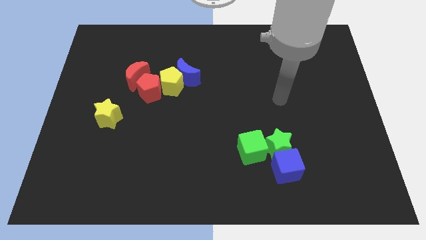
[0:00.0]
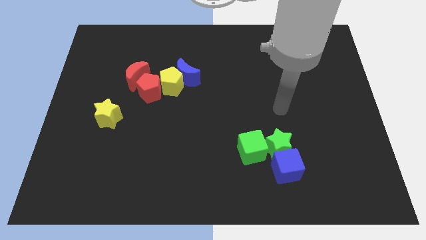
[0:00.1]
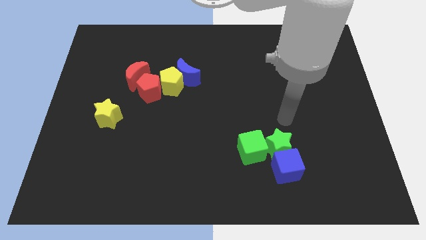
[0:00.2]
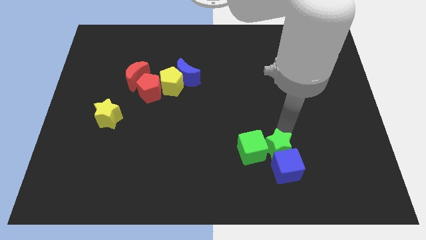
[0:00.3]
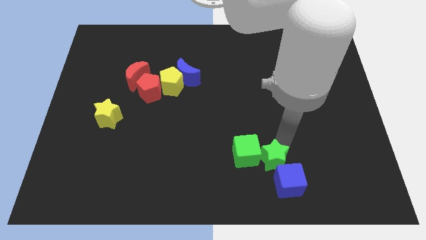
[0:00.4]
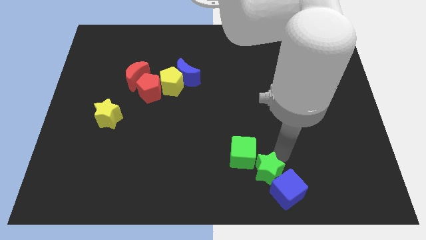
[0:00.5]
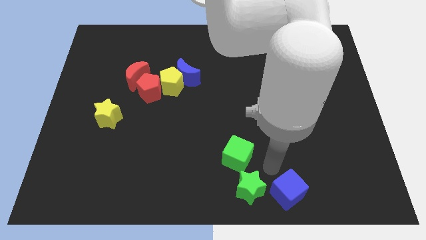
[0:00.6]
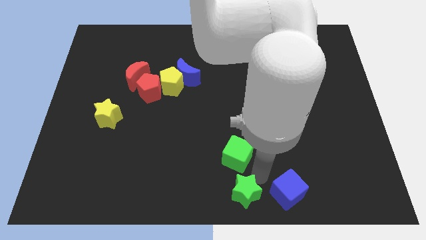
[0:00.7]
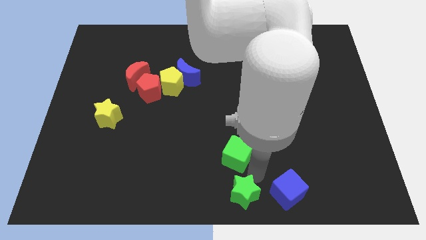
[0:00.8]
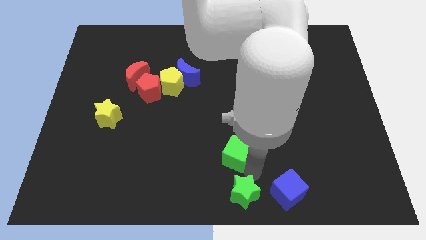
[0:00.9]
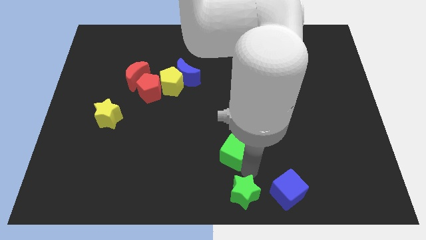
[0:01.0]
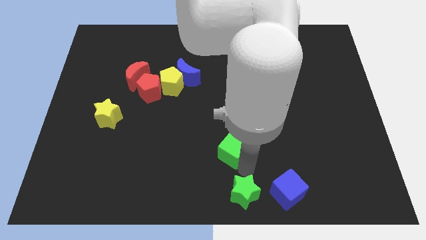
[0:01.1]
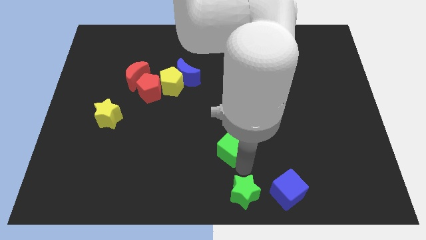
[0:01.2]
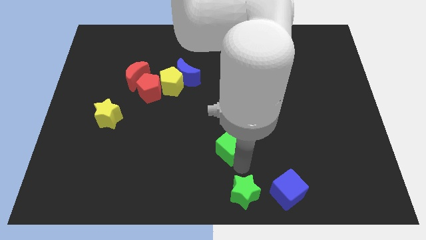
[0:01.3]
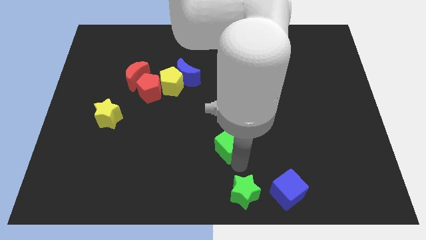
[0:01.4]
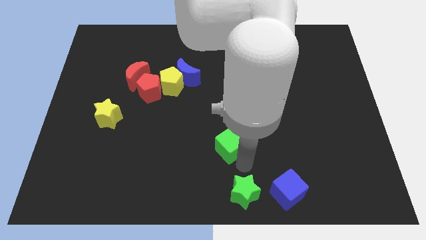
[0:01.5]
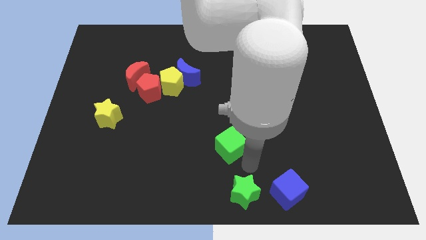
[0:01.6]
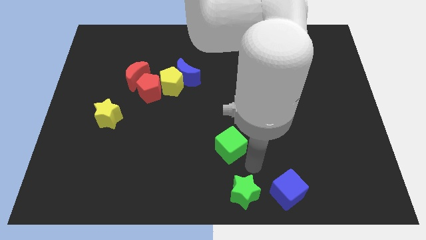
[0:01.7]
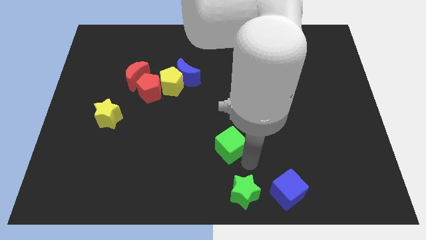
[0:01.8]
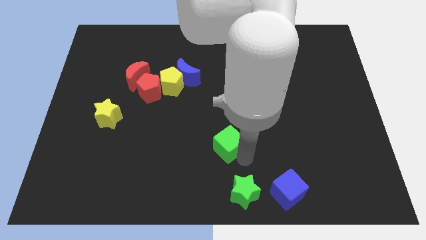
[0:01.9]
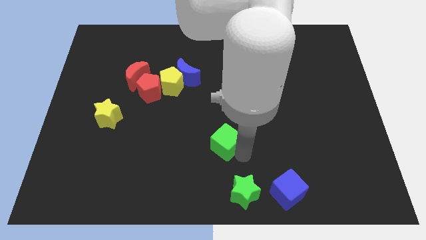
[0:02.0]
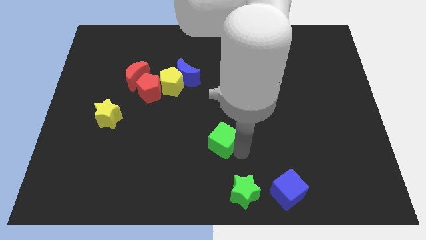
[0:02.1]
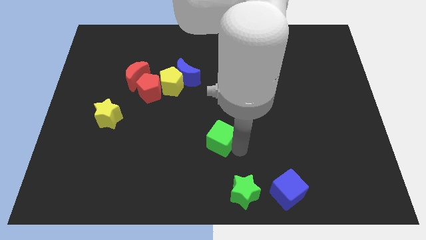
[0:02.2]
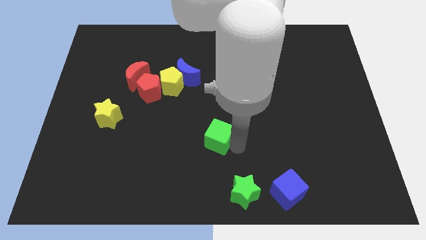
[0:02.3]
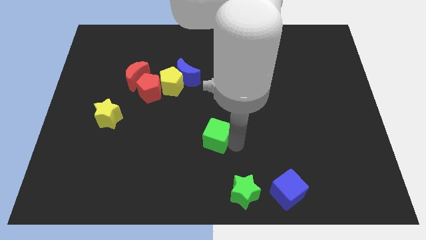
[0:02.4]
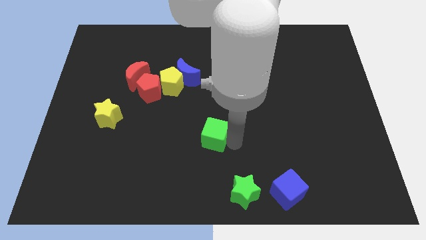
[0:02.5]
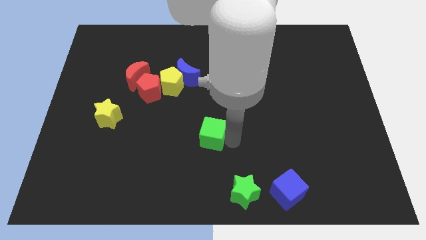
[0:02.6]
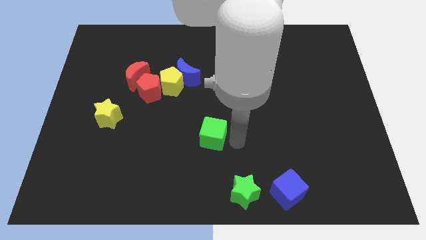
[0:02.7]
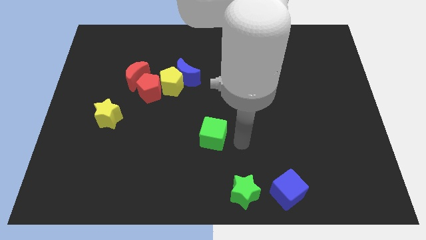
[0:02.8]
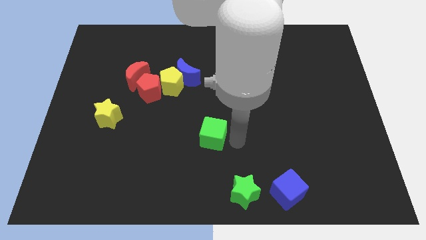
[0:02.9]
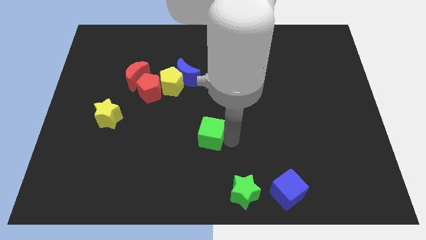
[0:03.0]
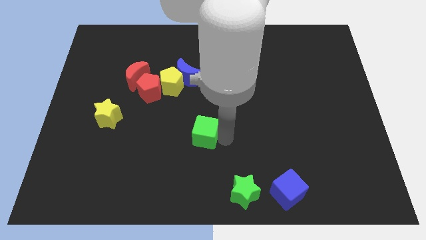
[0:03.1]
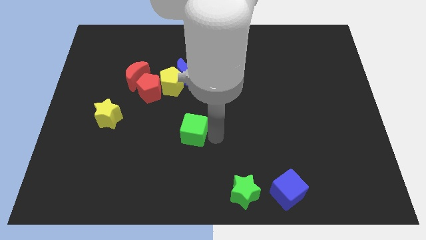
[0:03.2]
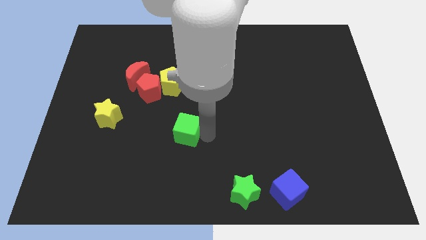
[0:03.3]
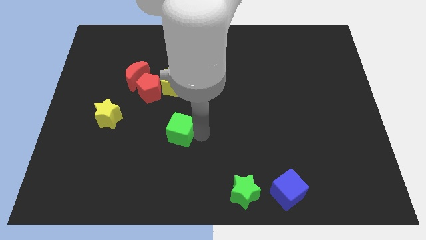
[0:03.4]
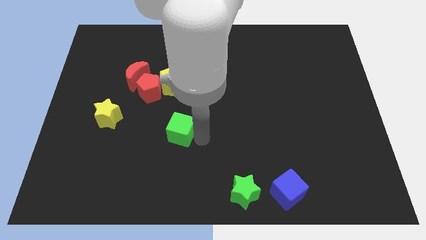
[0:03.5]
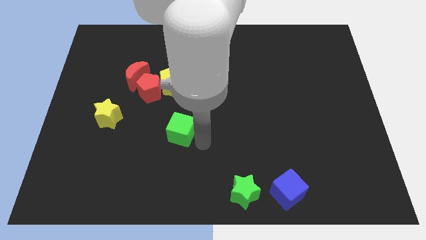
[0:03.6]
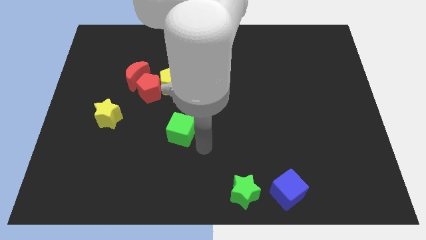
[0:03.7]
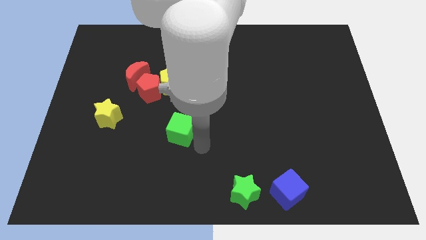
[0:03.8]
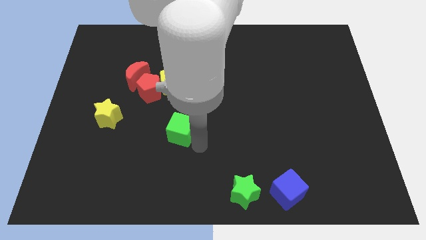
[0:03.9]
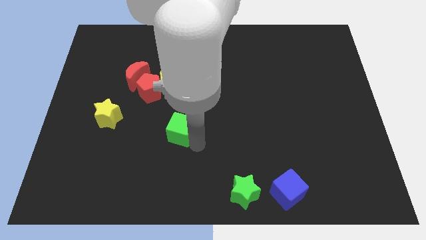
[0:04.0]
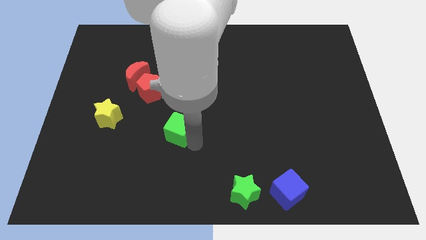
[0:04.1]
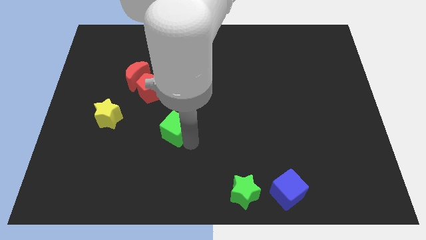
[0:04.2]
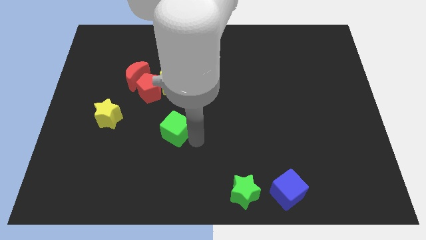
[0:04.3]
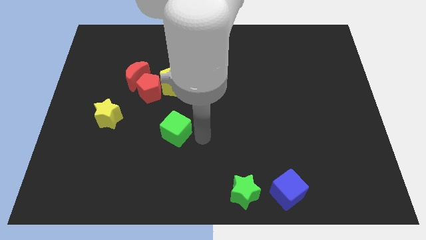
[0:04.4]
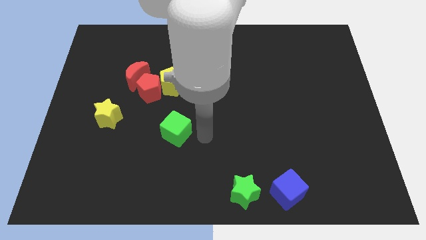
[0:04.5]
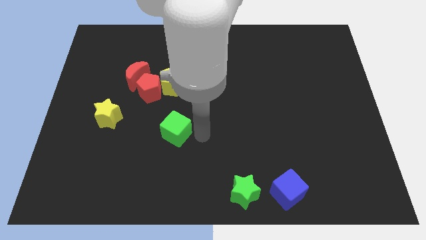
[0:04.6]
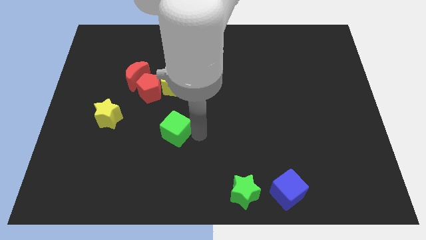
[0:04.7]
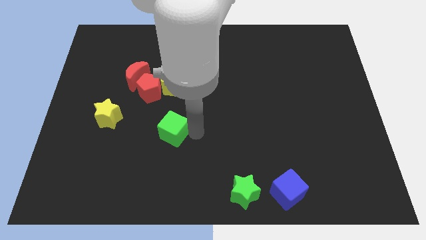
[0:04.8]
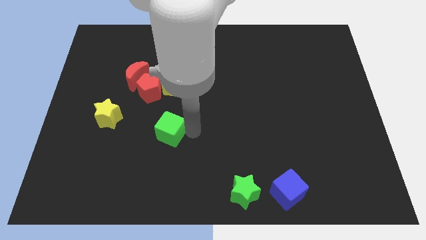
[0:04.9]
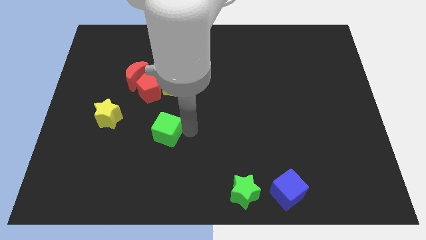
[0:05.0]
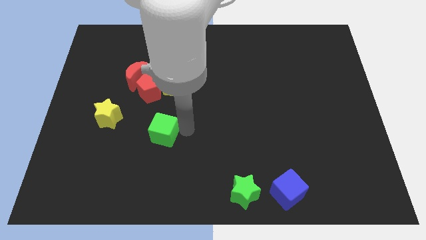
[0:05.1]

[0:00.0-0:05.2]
put the green cube to the bottom of the red pentagon

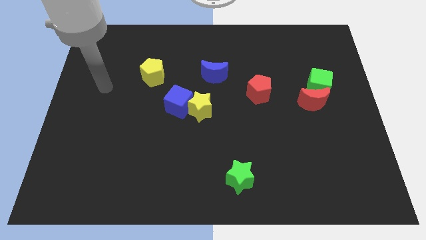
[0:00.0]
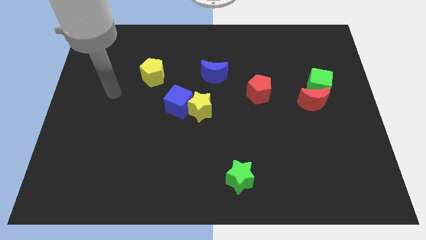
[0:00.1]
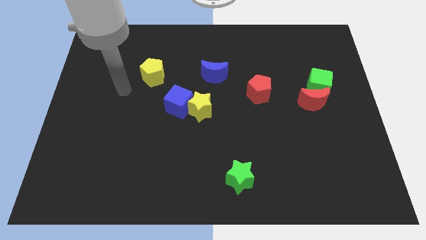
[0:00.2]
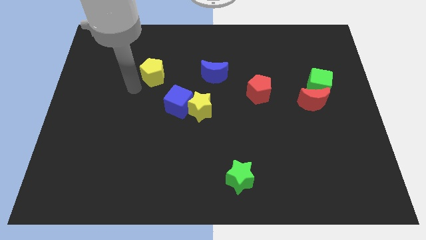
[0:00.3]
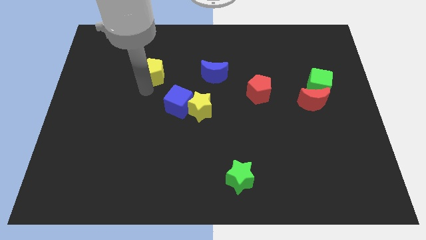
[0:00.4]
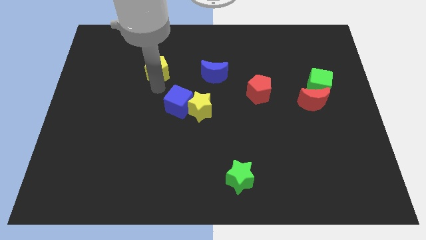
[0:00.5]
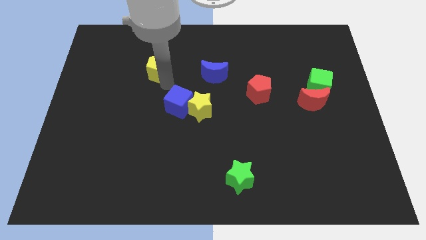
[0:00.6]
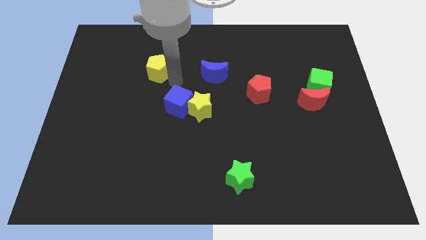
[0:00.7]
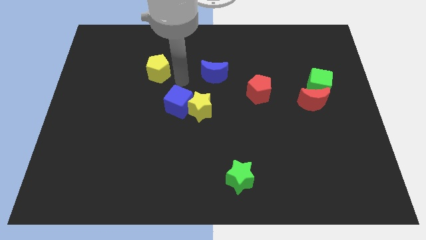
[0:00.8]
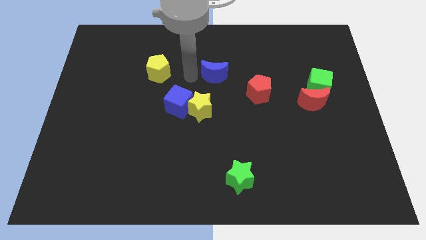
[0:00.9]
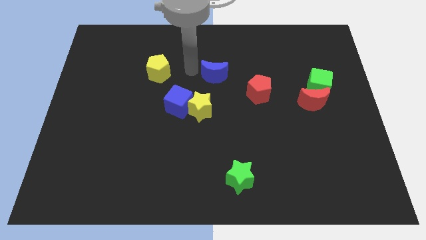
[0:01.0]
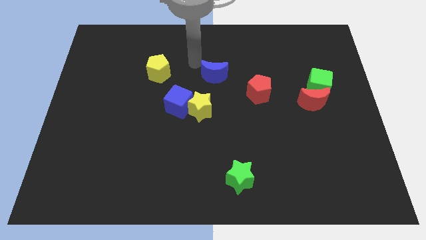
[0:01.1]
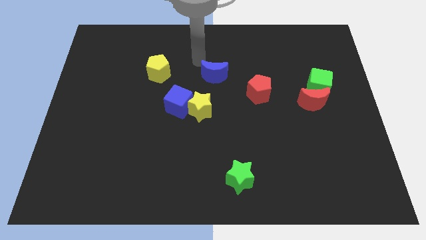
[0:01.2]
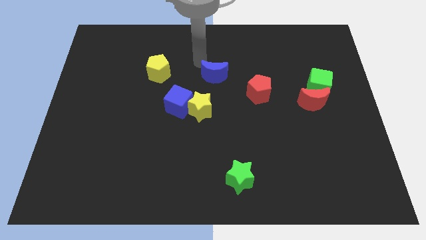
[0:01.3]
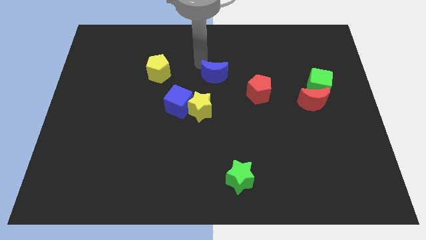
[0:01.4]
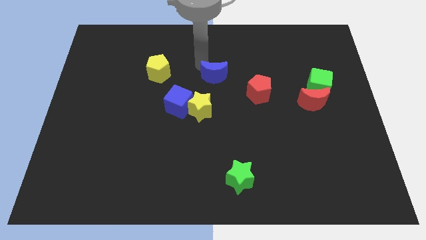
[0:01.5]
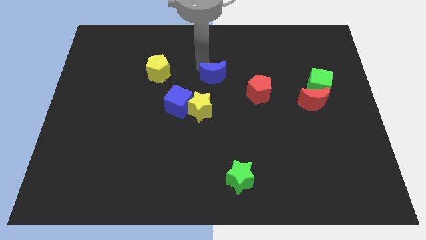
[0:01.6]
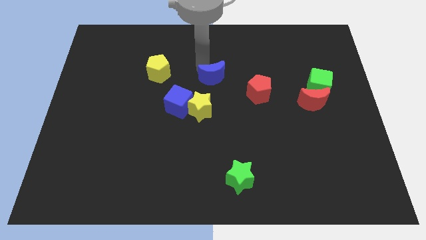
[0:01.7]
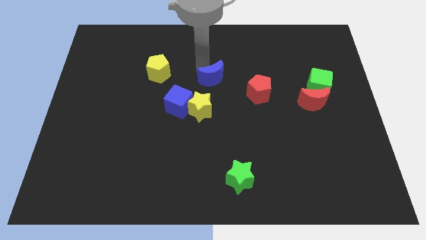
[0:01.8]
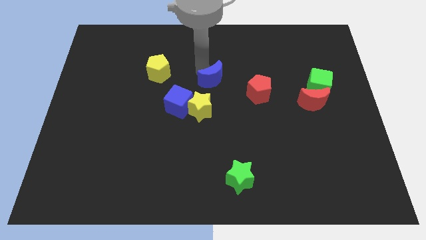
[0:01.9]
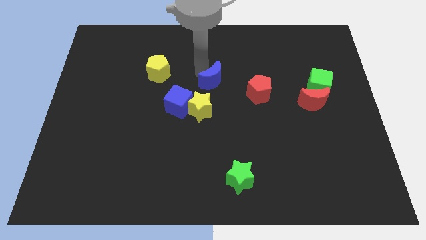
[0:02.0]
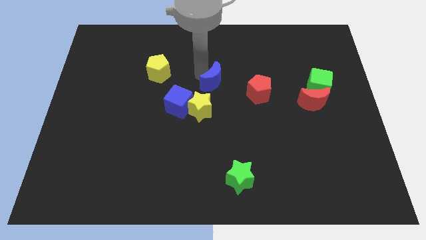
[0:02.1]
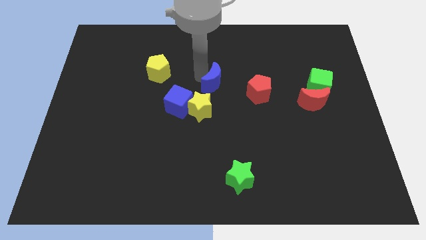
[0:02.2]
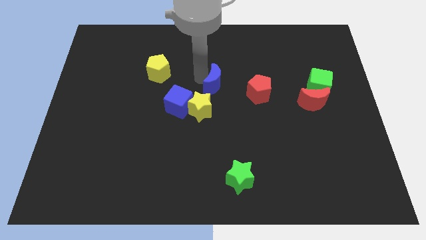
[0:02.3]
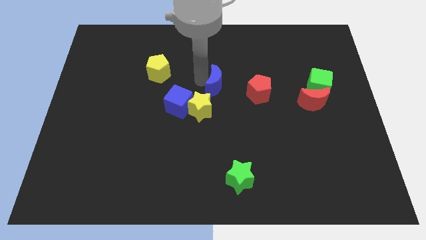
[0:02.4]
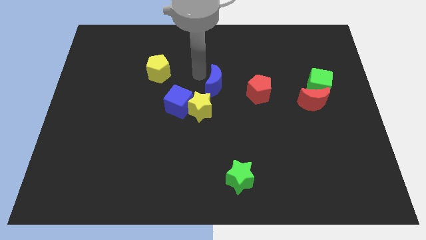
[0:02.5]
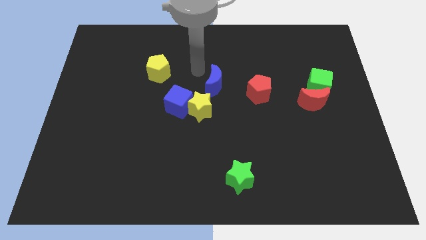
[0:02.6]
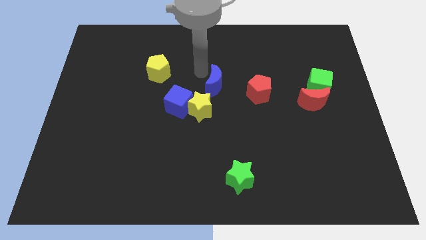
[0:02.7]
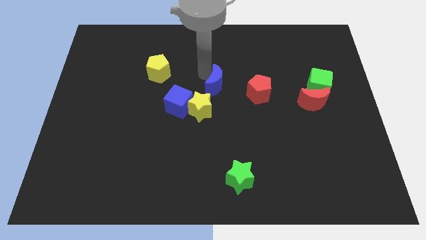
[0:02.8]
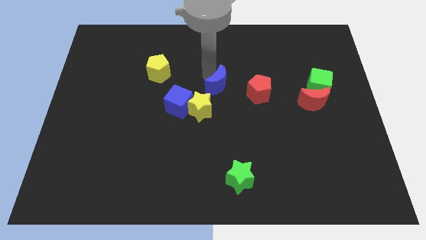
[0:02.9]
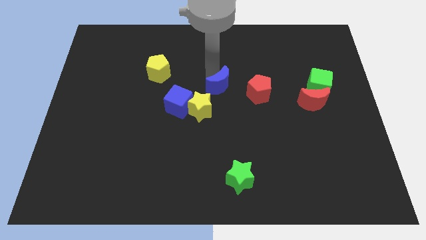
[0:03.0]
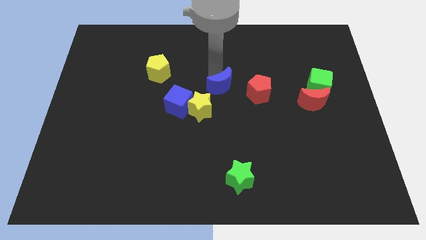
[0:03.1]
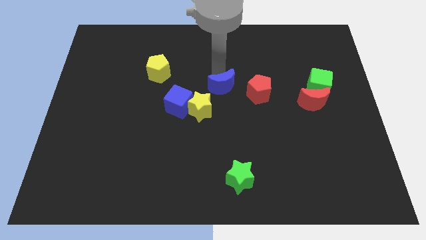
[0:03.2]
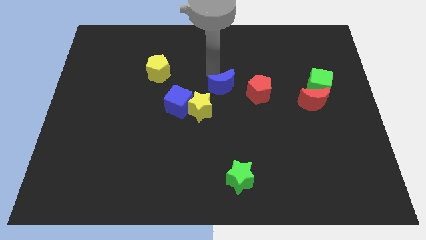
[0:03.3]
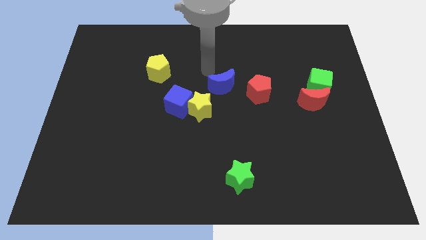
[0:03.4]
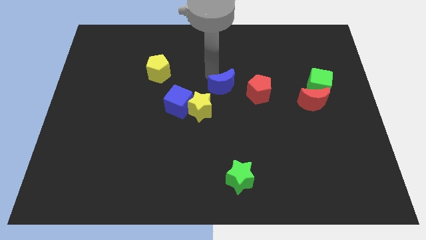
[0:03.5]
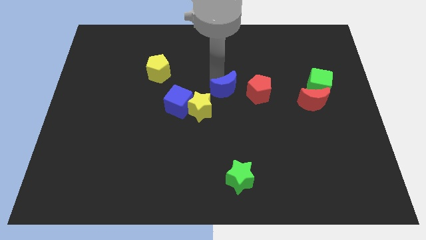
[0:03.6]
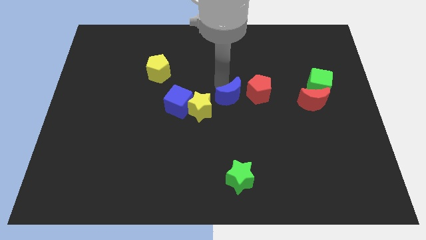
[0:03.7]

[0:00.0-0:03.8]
slide the blue moon to the right of the yellow star
